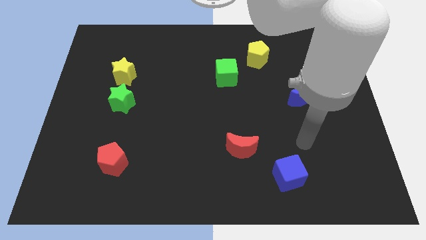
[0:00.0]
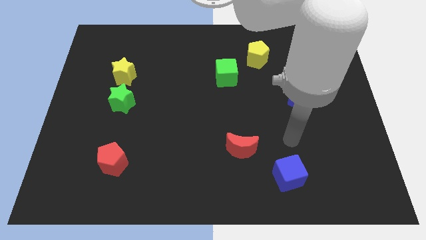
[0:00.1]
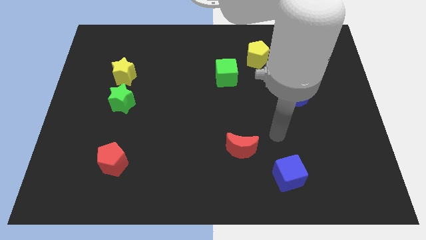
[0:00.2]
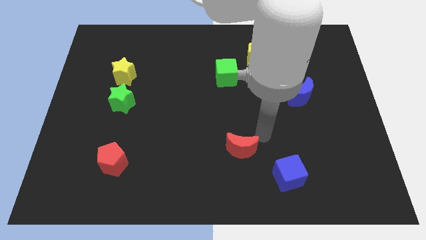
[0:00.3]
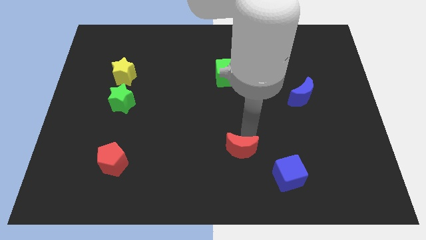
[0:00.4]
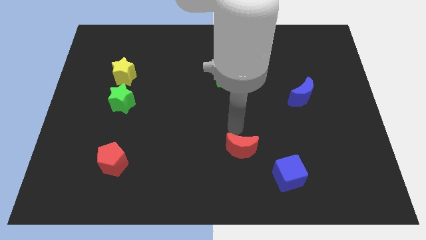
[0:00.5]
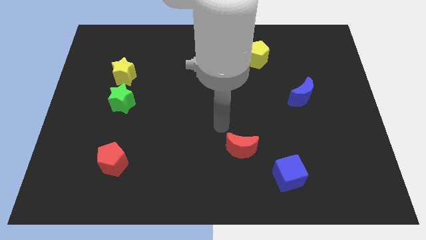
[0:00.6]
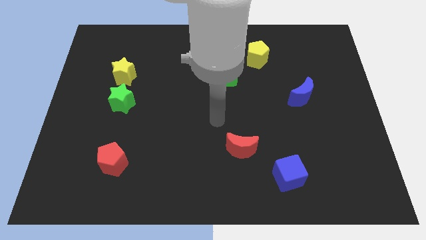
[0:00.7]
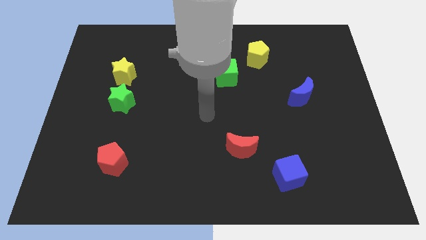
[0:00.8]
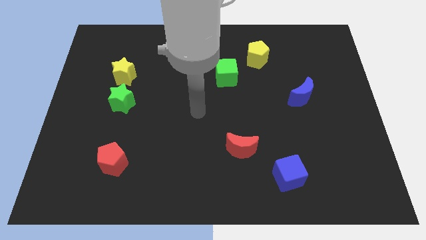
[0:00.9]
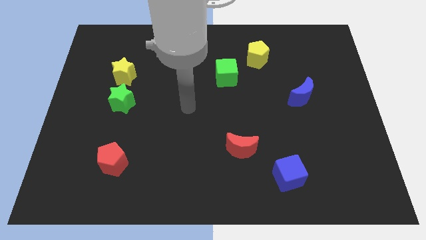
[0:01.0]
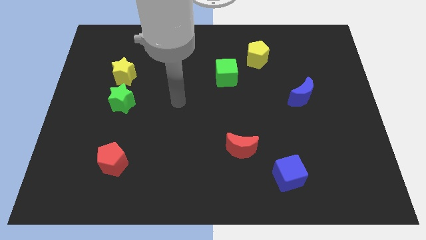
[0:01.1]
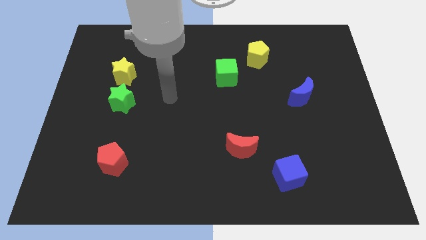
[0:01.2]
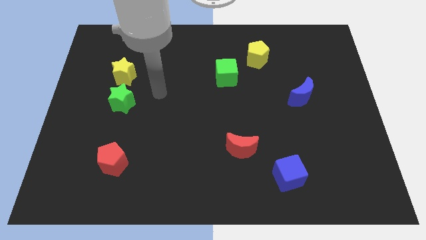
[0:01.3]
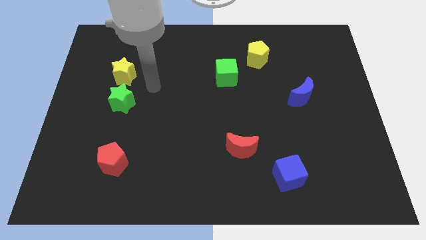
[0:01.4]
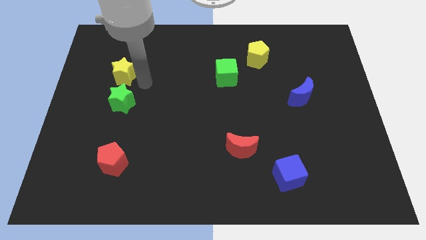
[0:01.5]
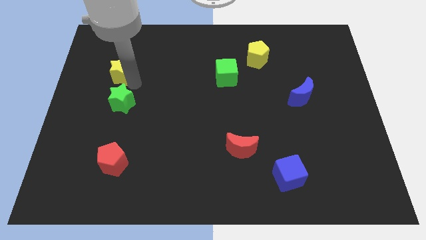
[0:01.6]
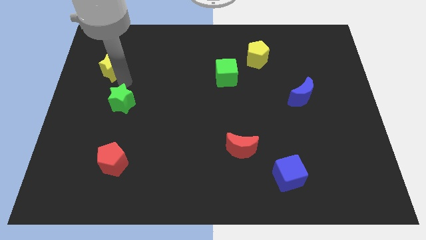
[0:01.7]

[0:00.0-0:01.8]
separate the green star from the yellow star

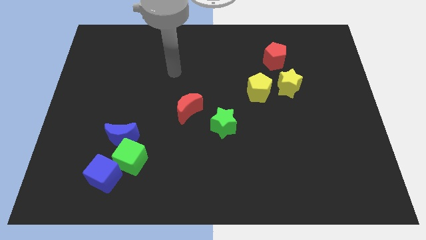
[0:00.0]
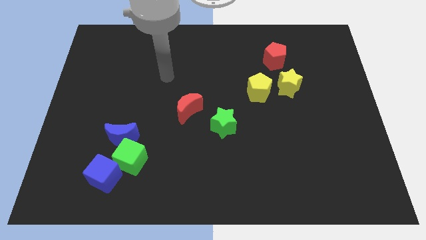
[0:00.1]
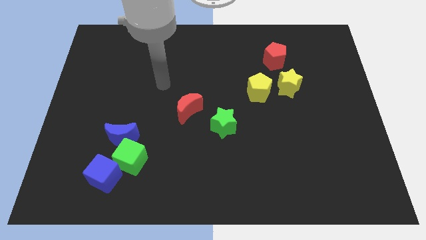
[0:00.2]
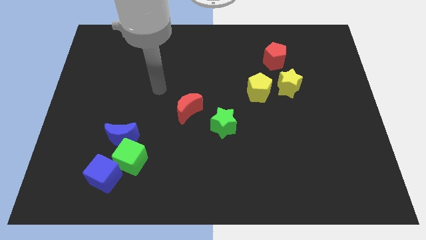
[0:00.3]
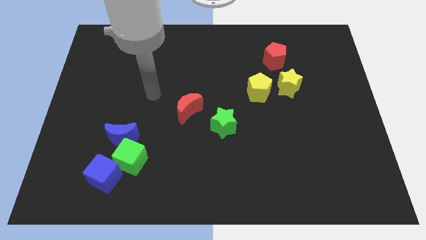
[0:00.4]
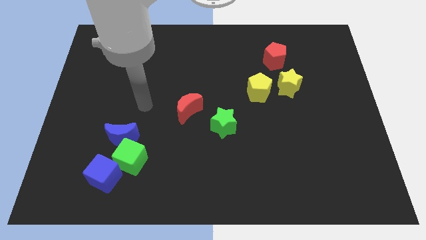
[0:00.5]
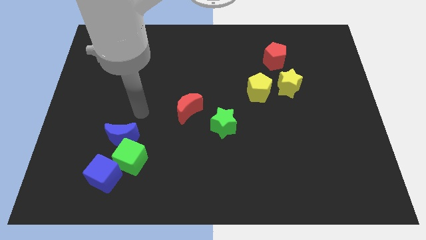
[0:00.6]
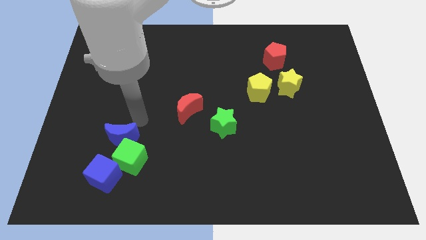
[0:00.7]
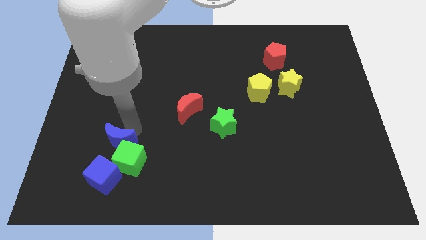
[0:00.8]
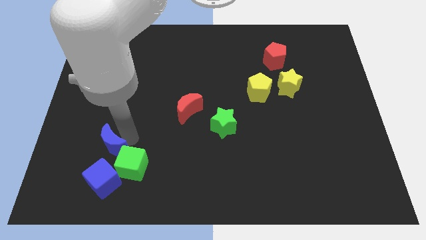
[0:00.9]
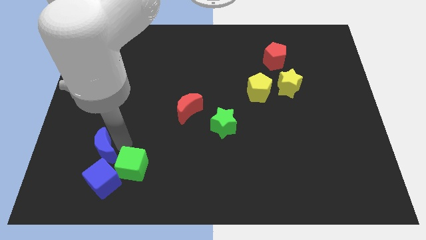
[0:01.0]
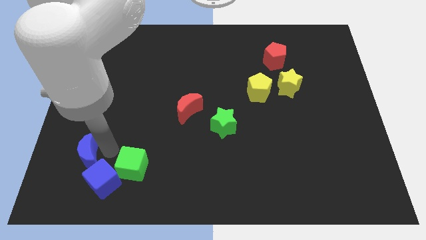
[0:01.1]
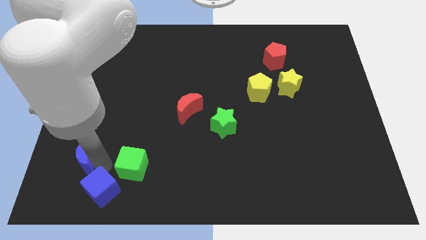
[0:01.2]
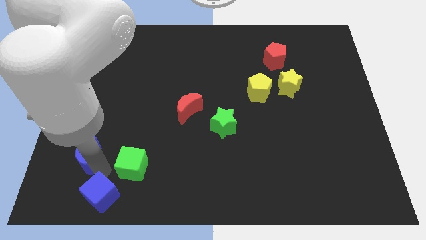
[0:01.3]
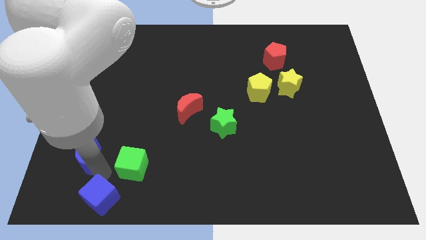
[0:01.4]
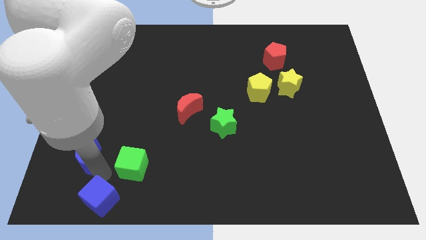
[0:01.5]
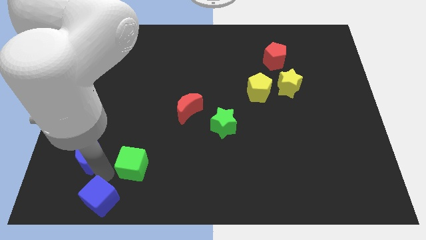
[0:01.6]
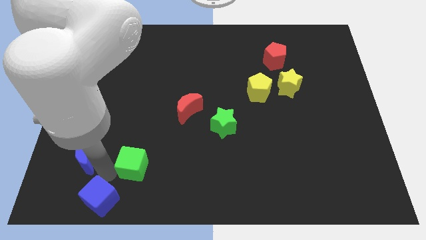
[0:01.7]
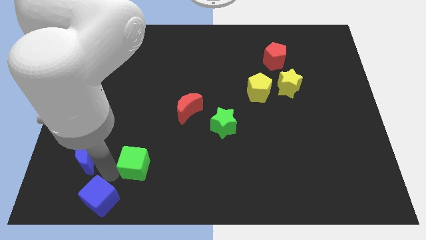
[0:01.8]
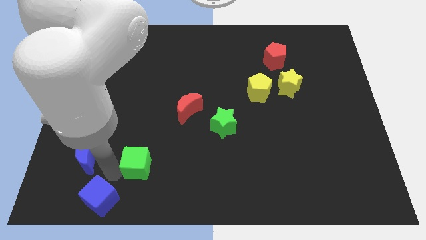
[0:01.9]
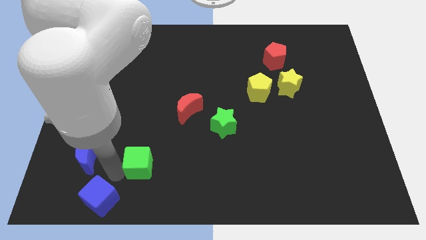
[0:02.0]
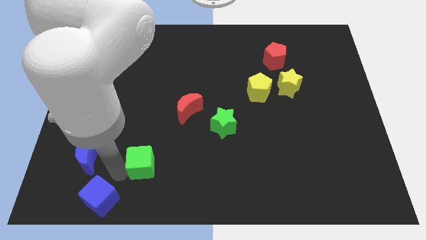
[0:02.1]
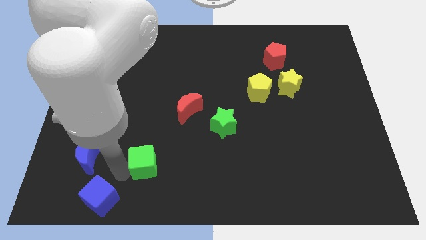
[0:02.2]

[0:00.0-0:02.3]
move the green cube away from the blue moon and blue cube

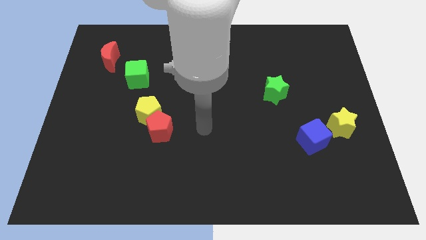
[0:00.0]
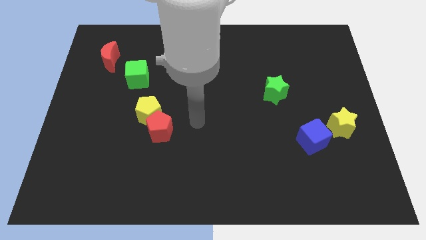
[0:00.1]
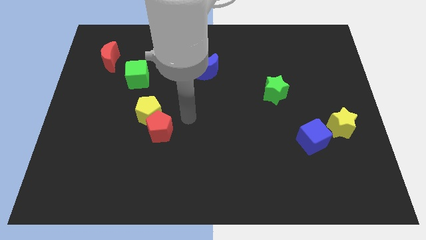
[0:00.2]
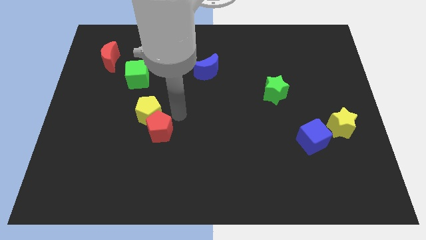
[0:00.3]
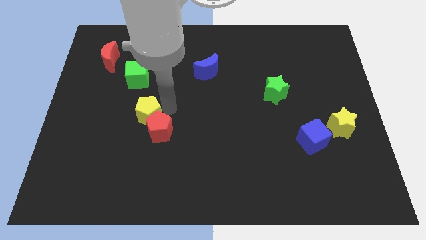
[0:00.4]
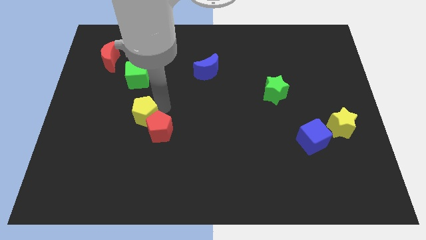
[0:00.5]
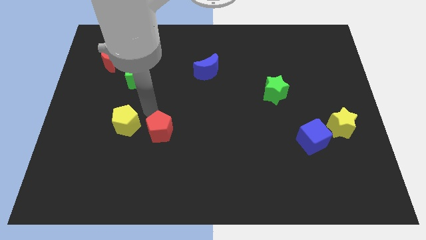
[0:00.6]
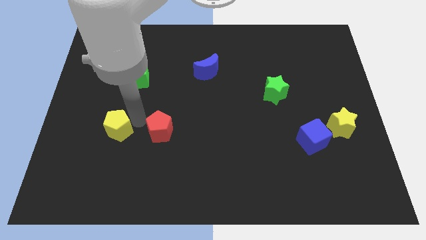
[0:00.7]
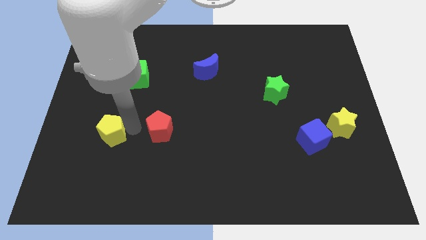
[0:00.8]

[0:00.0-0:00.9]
pull the red pentagon apart from the yellow pentagon

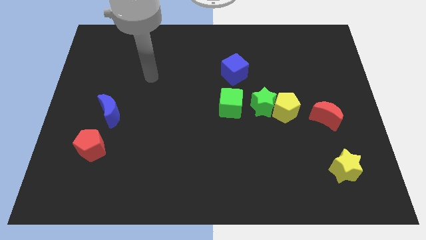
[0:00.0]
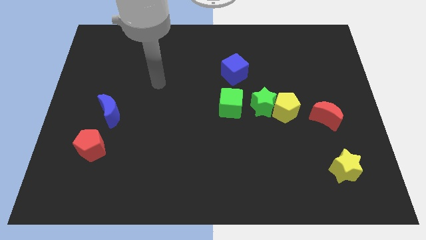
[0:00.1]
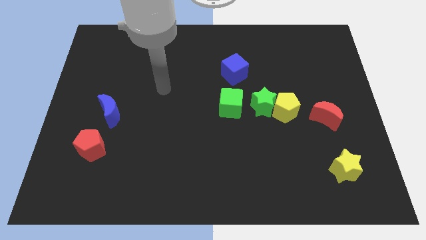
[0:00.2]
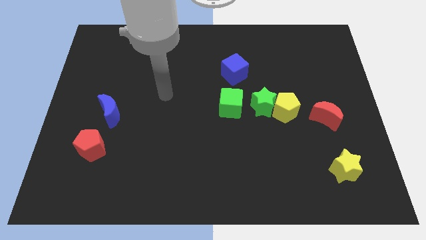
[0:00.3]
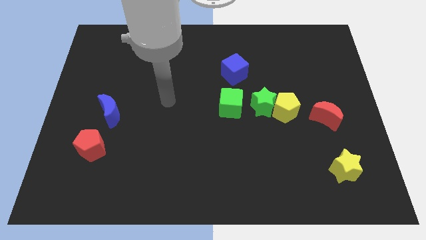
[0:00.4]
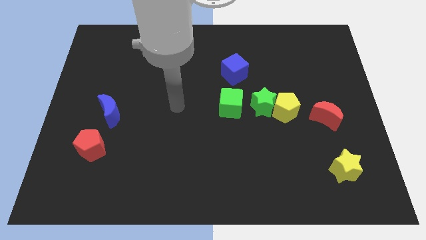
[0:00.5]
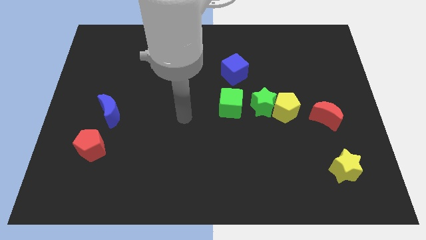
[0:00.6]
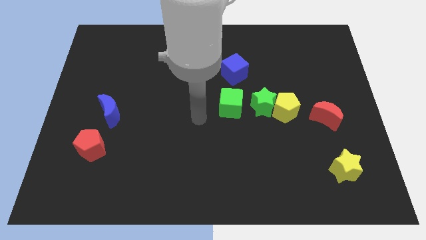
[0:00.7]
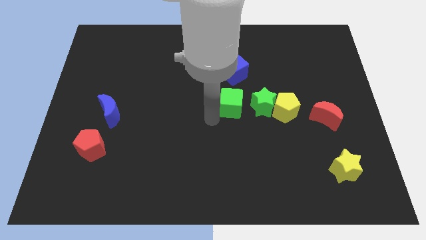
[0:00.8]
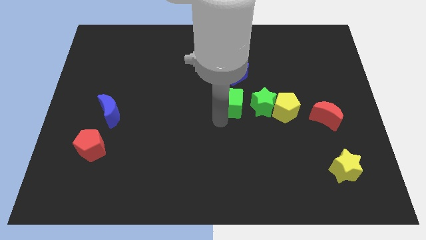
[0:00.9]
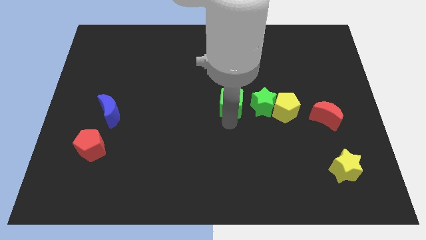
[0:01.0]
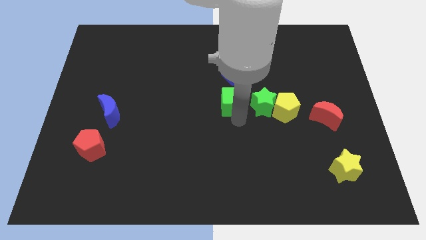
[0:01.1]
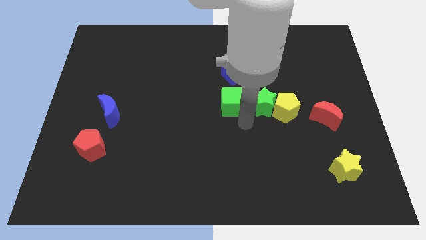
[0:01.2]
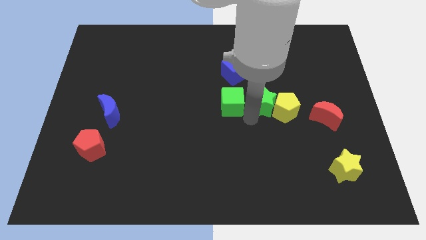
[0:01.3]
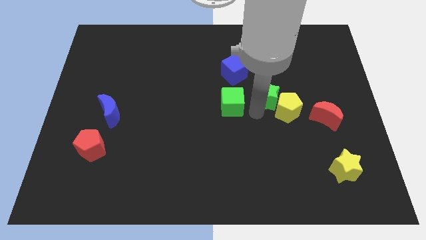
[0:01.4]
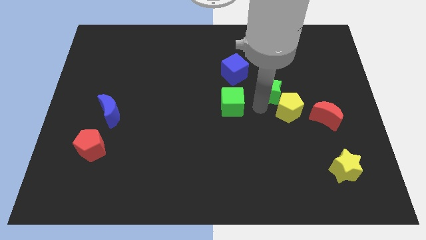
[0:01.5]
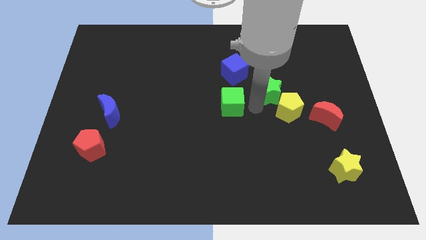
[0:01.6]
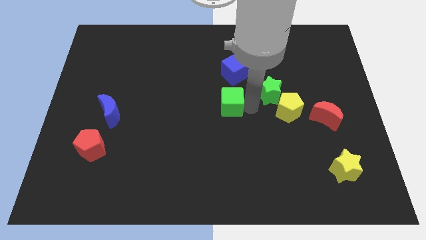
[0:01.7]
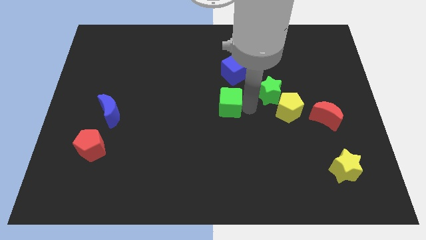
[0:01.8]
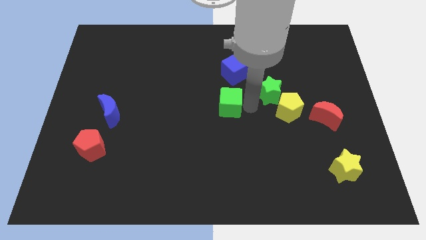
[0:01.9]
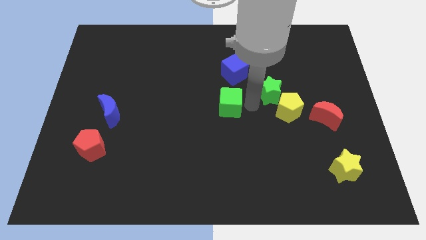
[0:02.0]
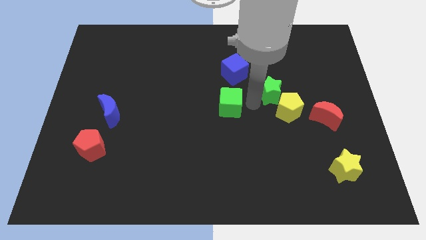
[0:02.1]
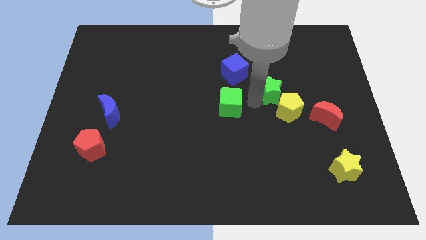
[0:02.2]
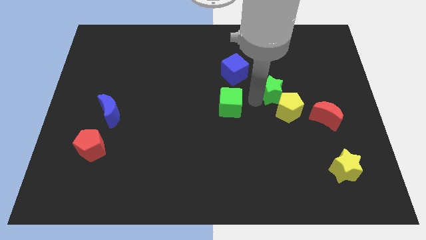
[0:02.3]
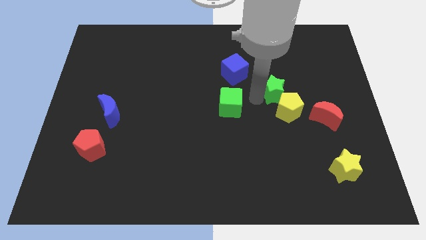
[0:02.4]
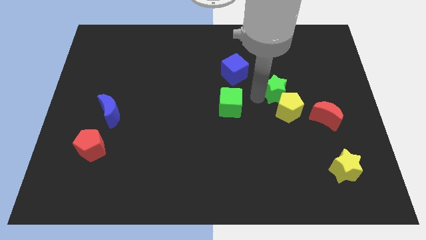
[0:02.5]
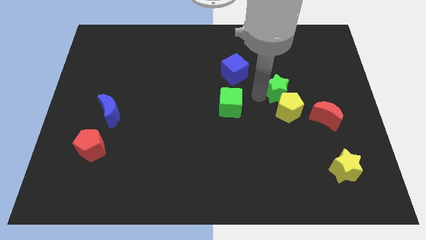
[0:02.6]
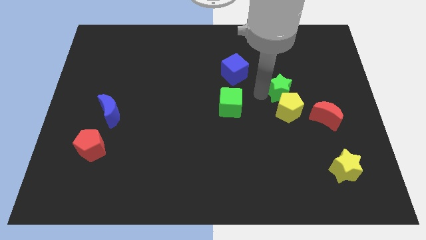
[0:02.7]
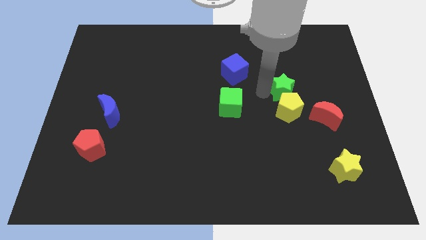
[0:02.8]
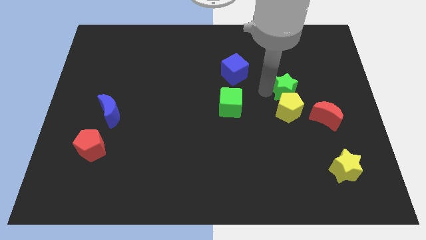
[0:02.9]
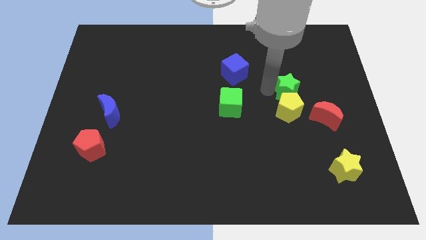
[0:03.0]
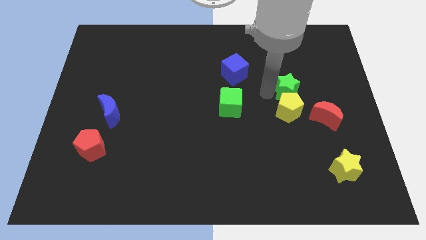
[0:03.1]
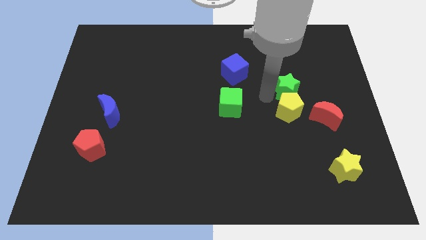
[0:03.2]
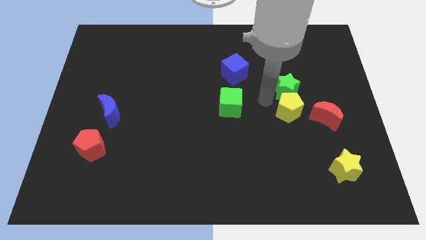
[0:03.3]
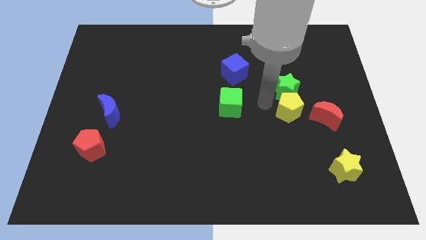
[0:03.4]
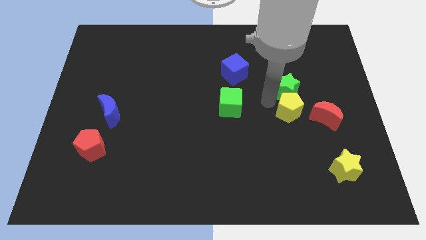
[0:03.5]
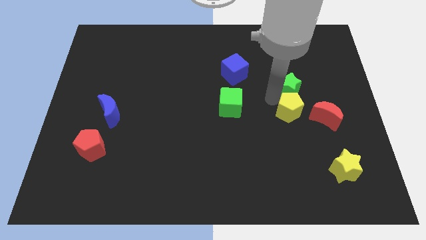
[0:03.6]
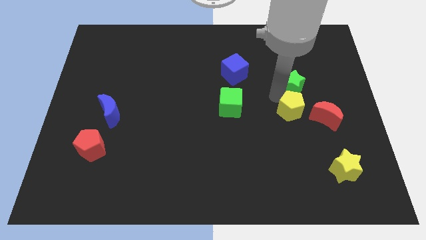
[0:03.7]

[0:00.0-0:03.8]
separate the green star from the yellow pentagon and green cube

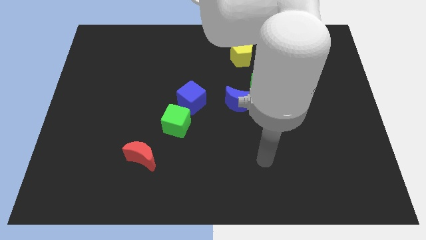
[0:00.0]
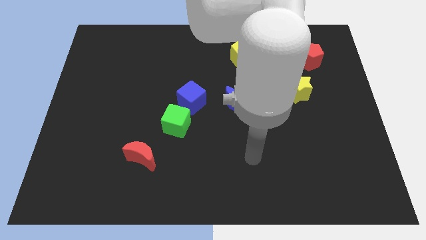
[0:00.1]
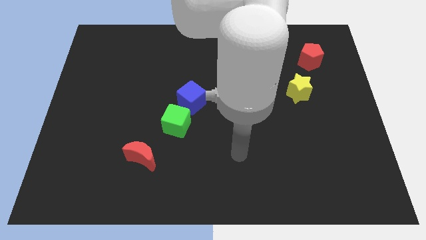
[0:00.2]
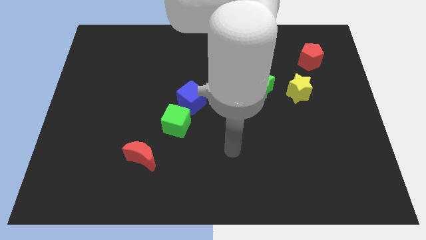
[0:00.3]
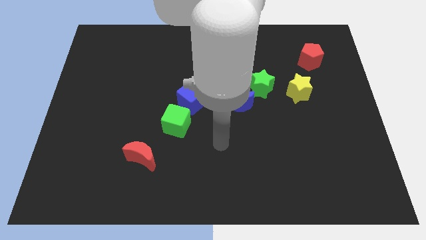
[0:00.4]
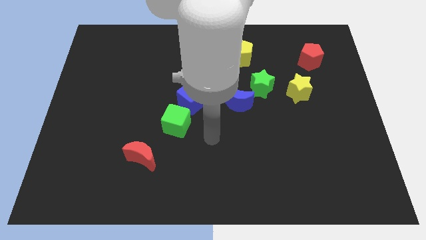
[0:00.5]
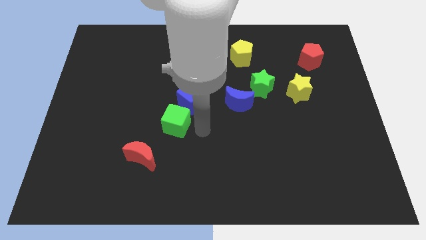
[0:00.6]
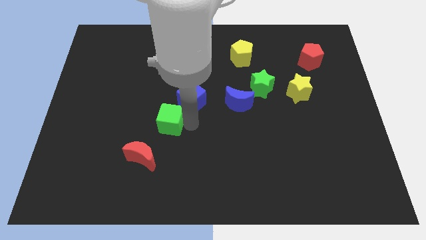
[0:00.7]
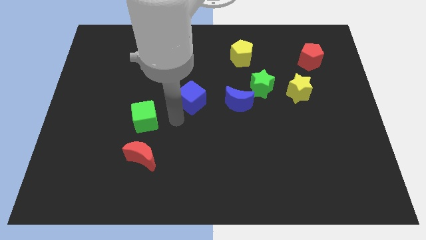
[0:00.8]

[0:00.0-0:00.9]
separate the blue cube from the green cube
